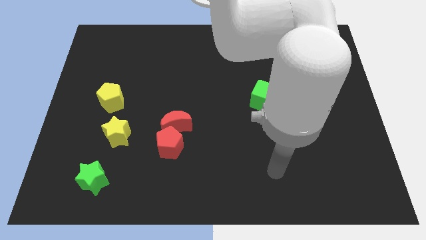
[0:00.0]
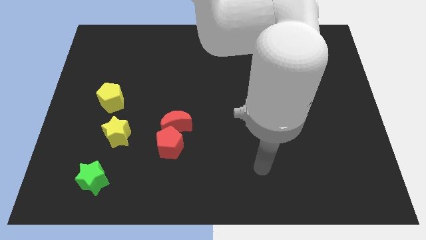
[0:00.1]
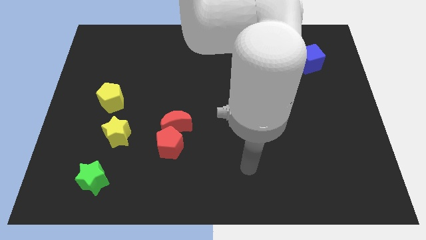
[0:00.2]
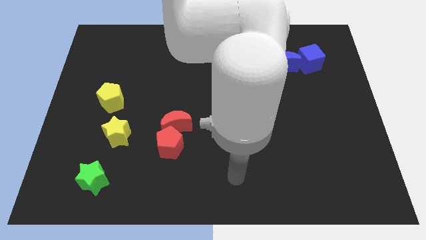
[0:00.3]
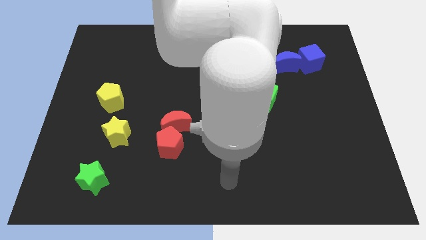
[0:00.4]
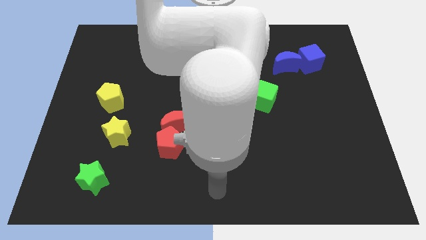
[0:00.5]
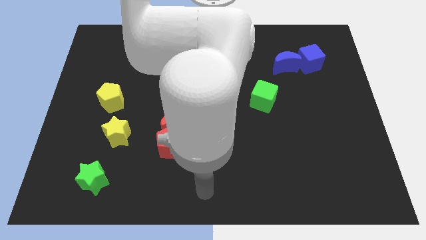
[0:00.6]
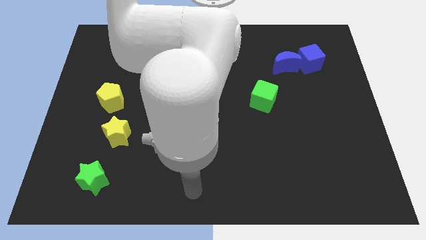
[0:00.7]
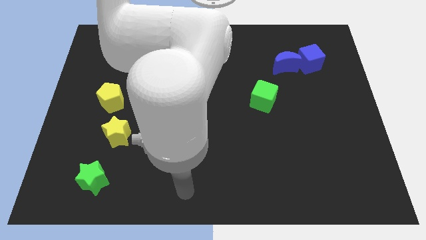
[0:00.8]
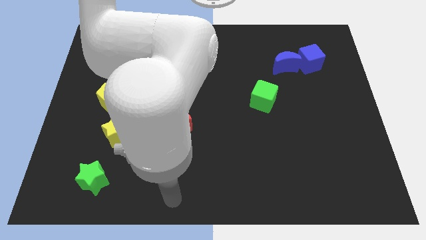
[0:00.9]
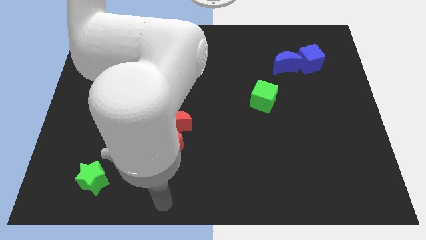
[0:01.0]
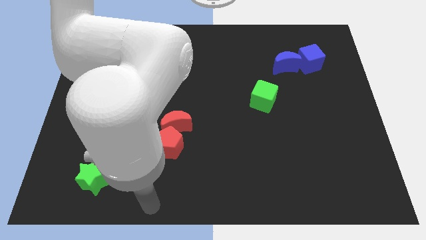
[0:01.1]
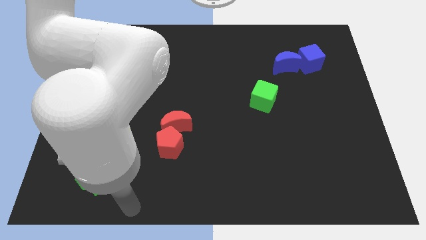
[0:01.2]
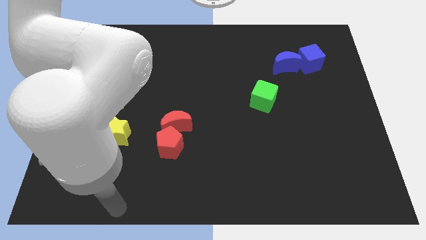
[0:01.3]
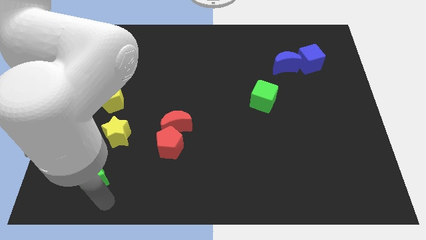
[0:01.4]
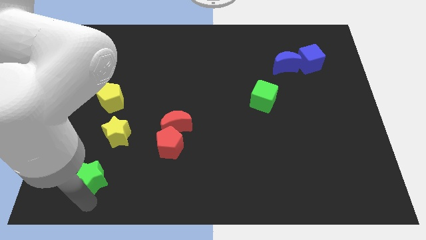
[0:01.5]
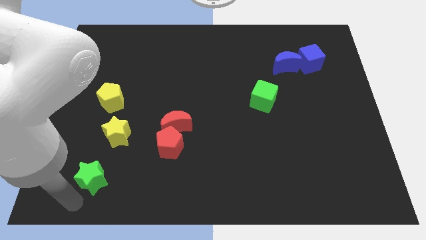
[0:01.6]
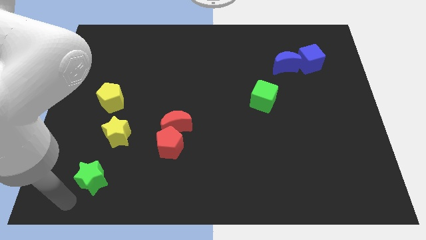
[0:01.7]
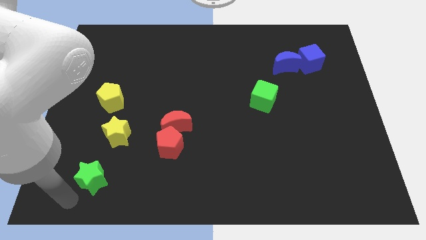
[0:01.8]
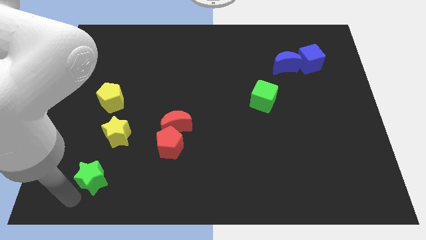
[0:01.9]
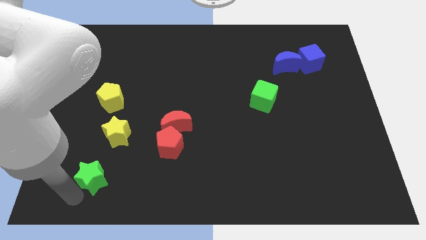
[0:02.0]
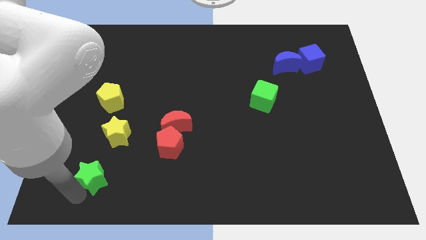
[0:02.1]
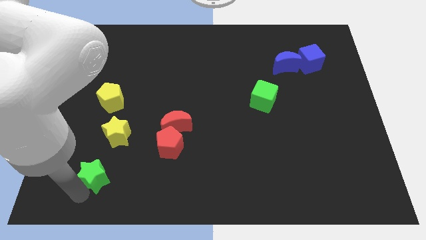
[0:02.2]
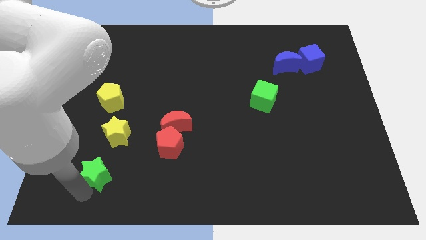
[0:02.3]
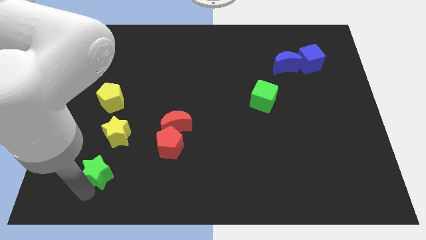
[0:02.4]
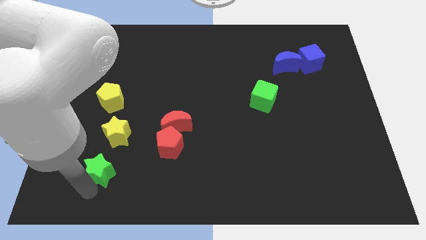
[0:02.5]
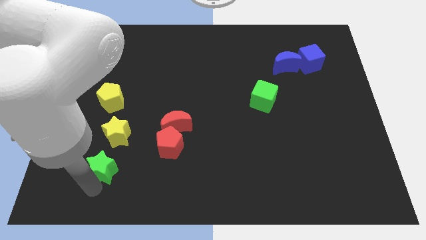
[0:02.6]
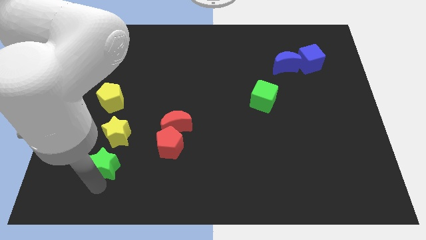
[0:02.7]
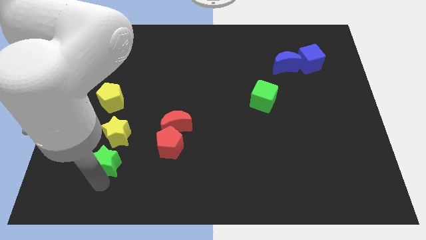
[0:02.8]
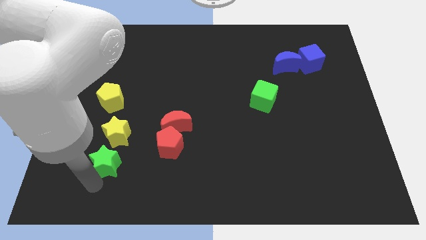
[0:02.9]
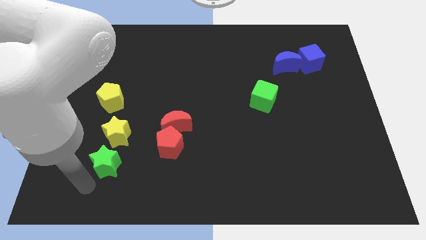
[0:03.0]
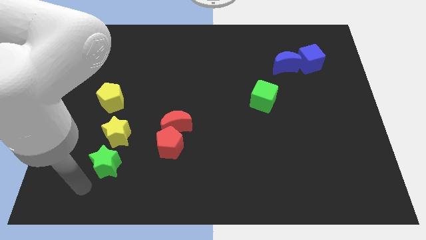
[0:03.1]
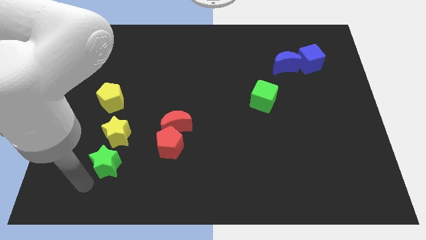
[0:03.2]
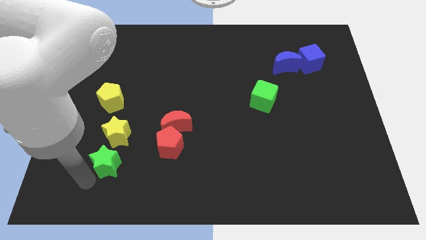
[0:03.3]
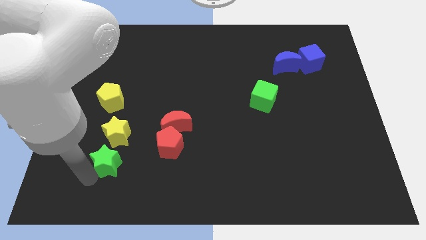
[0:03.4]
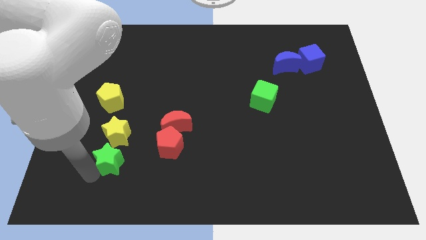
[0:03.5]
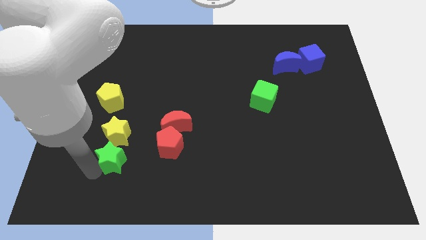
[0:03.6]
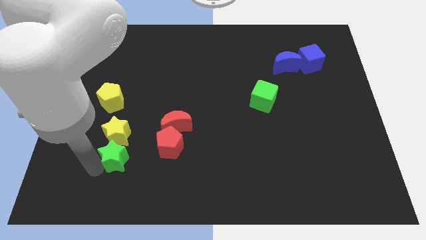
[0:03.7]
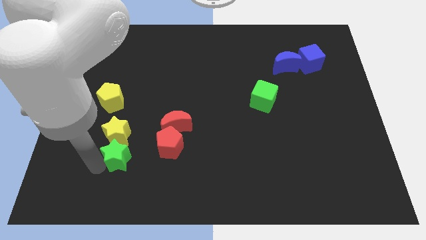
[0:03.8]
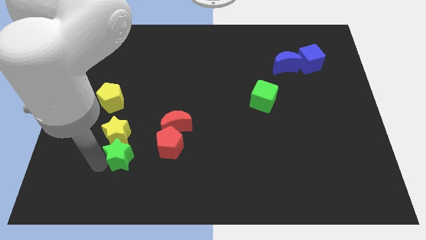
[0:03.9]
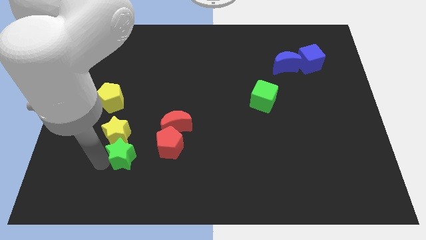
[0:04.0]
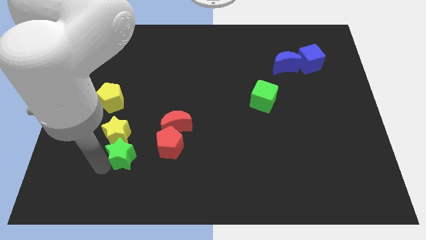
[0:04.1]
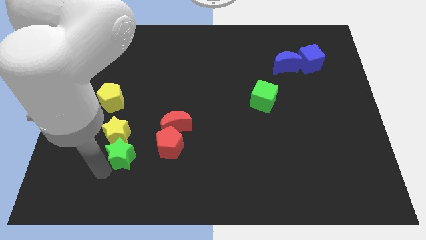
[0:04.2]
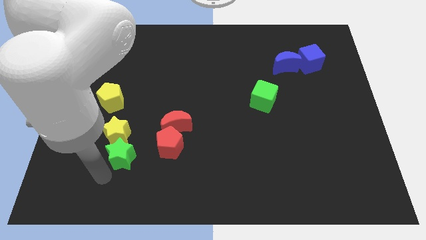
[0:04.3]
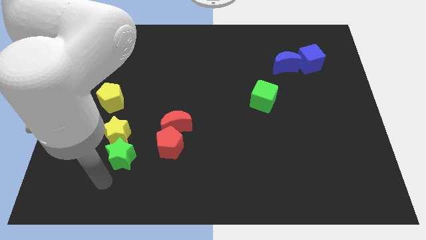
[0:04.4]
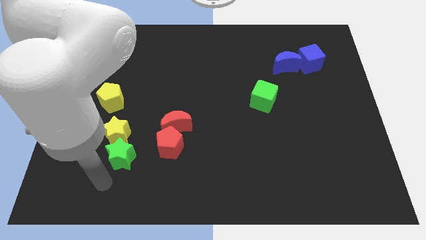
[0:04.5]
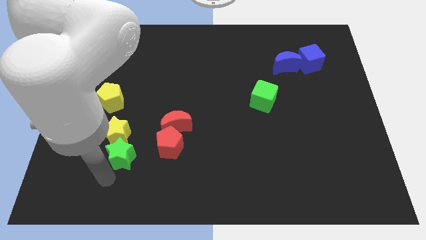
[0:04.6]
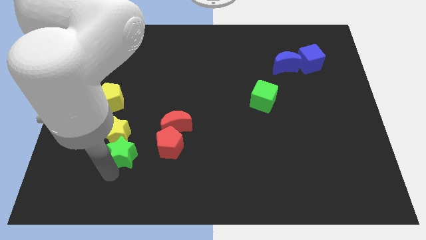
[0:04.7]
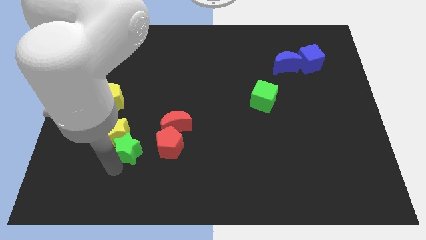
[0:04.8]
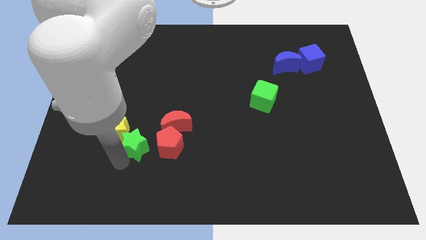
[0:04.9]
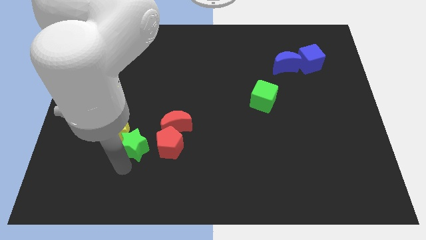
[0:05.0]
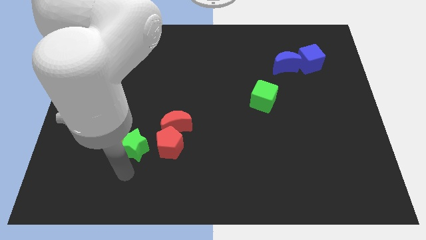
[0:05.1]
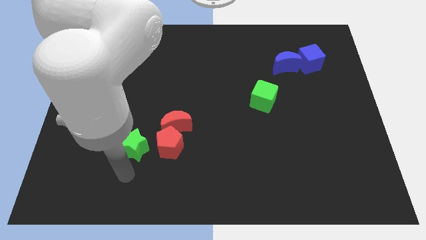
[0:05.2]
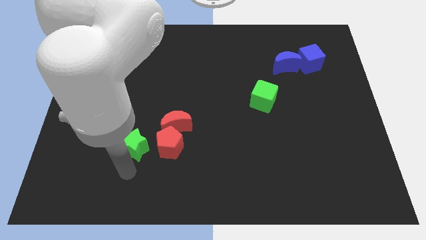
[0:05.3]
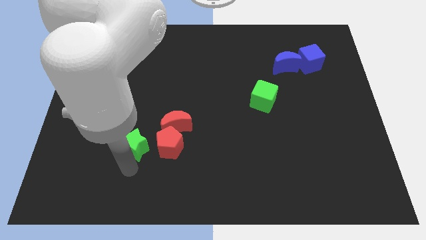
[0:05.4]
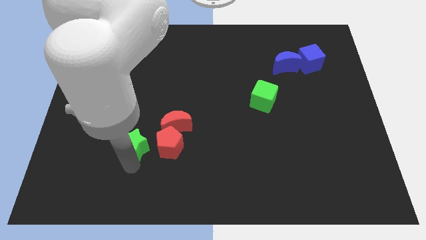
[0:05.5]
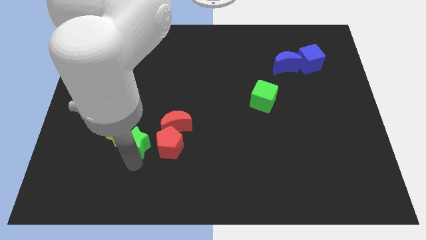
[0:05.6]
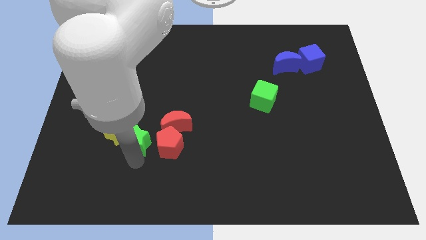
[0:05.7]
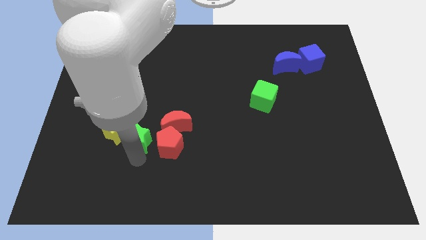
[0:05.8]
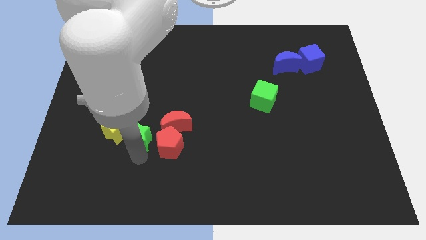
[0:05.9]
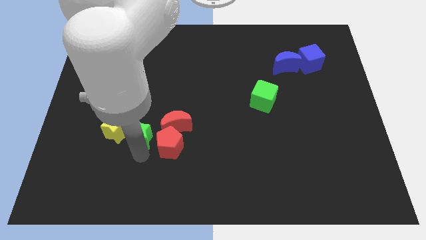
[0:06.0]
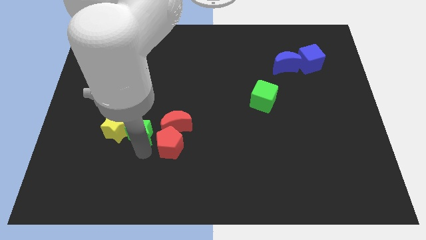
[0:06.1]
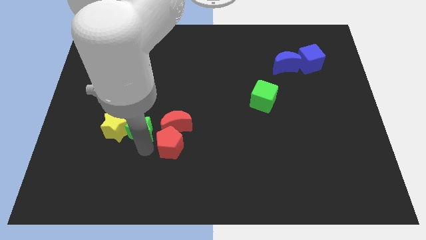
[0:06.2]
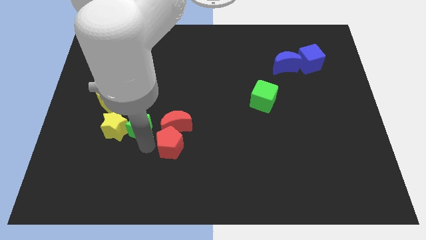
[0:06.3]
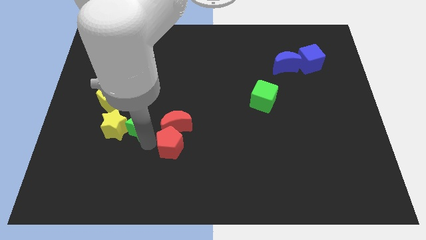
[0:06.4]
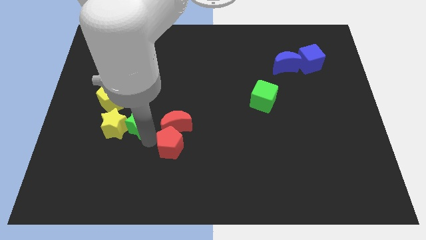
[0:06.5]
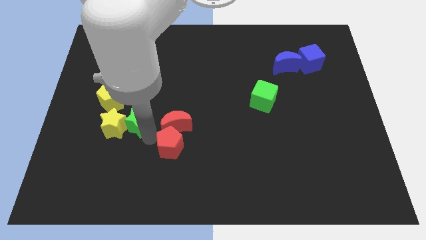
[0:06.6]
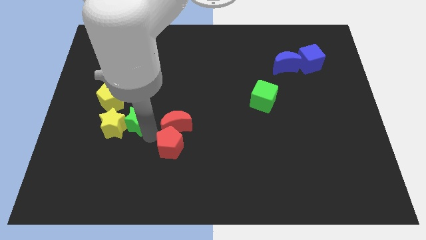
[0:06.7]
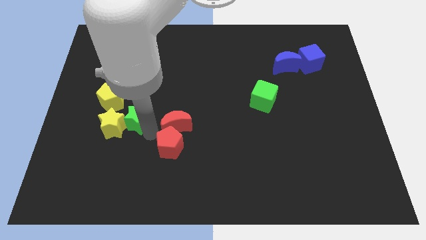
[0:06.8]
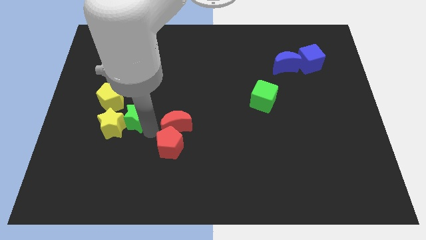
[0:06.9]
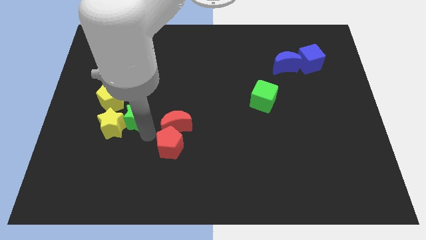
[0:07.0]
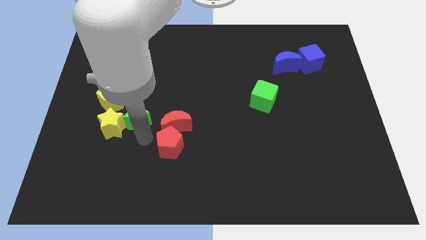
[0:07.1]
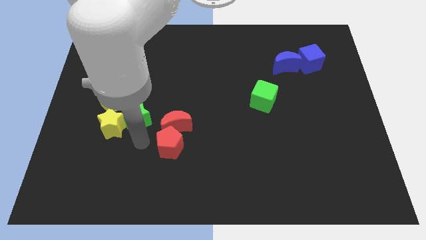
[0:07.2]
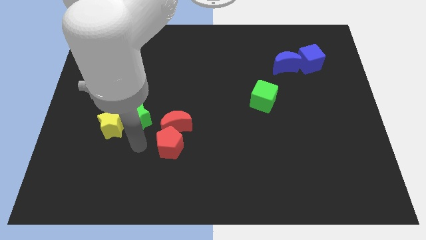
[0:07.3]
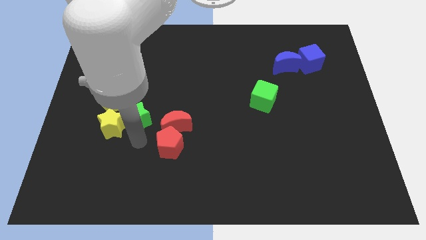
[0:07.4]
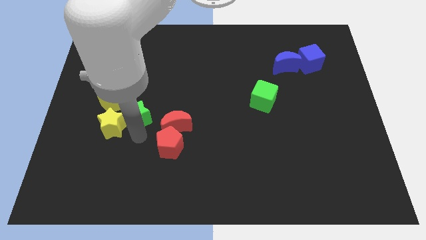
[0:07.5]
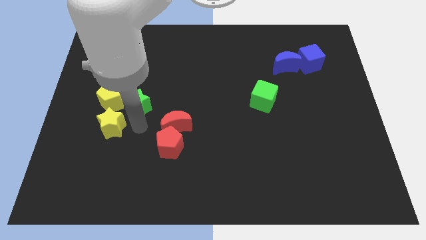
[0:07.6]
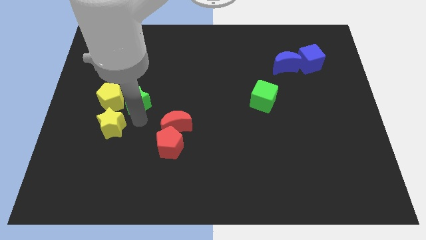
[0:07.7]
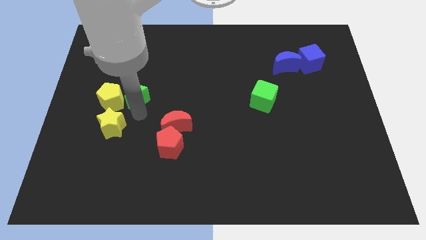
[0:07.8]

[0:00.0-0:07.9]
put the green star to the top right of the yellow pentagon
